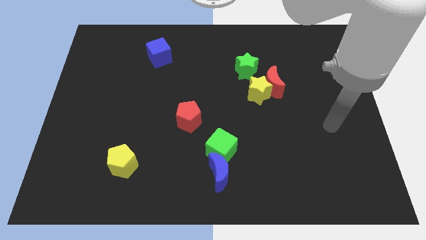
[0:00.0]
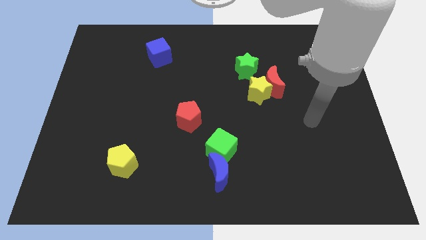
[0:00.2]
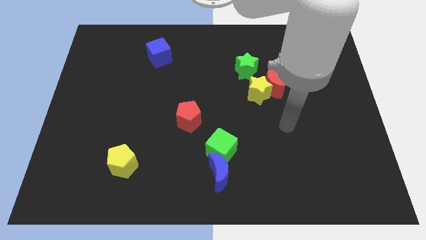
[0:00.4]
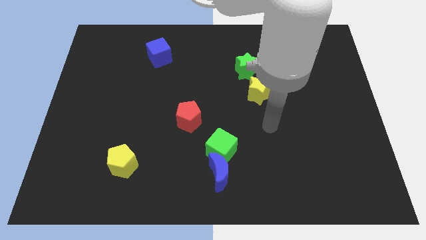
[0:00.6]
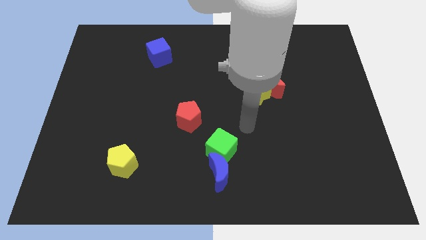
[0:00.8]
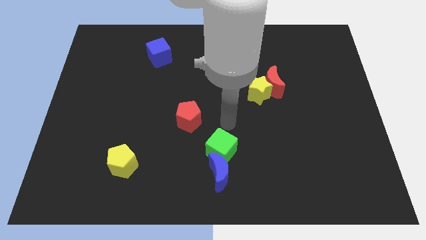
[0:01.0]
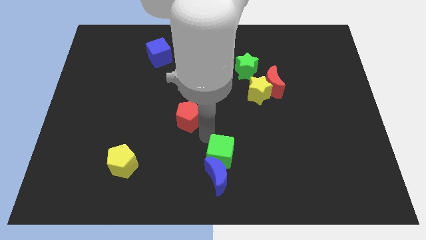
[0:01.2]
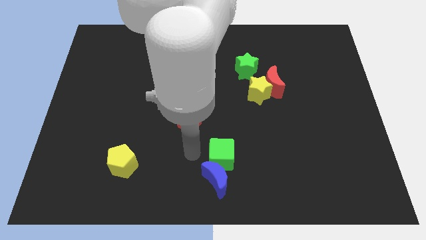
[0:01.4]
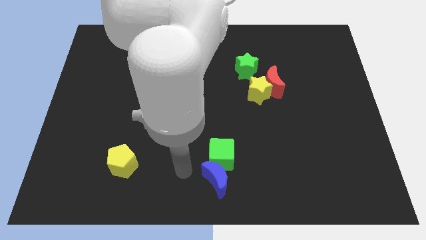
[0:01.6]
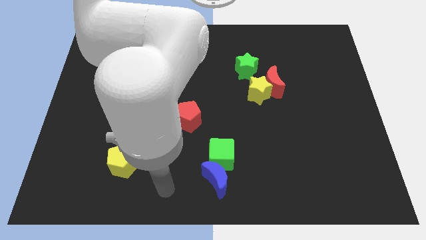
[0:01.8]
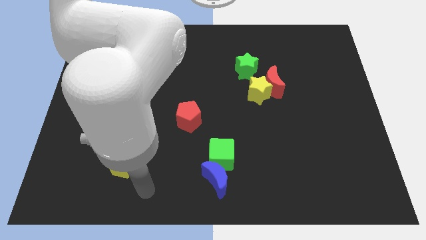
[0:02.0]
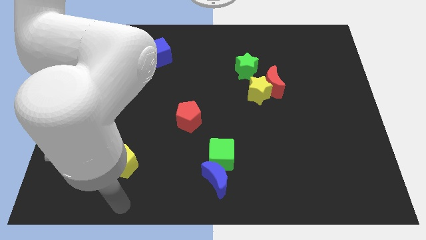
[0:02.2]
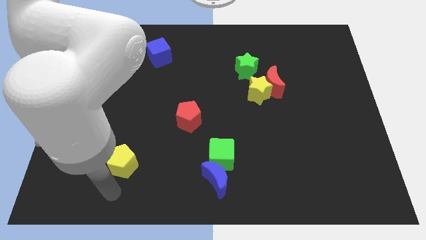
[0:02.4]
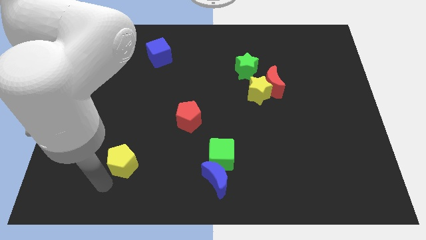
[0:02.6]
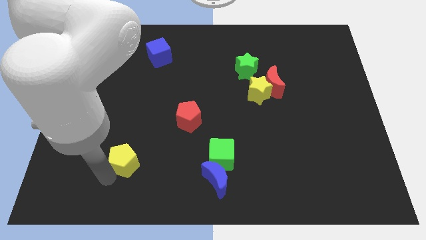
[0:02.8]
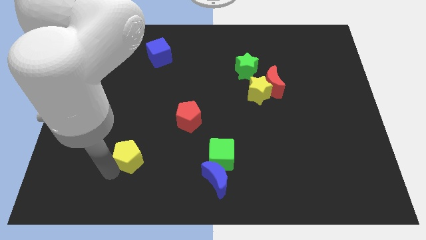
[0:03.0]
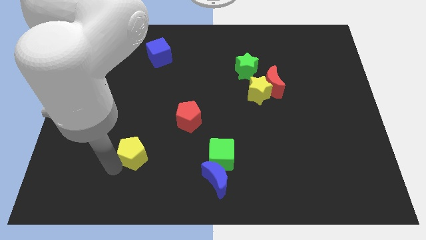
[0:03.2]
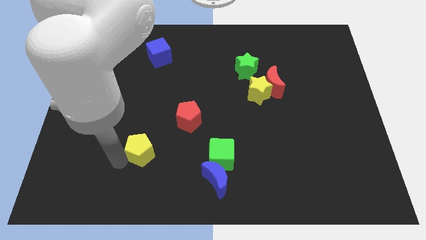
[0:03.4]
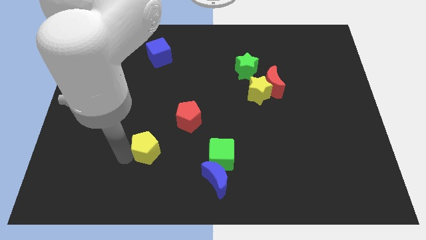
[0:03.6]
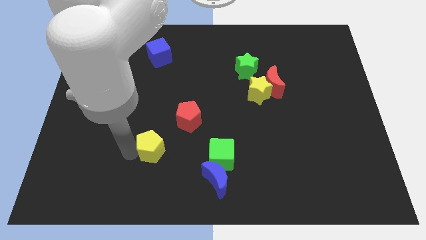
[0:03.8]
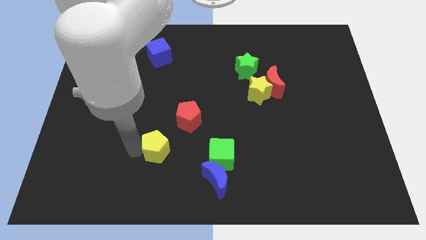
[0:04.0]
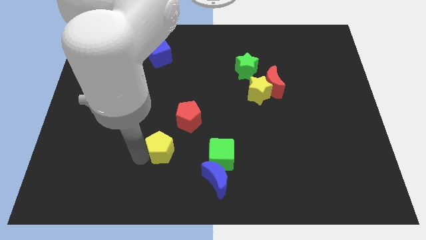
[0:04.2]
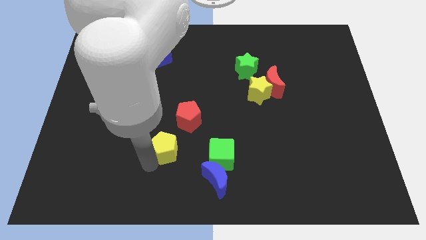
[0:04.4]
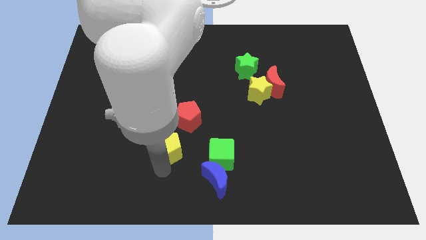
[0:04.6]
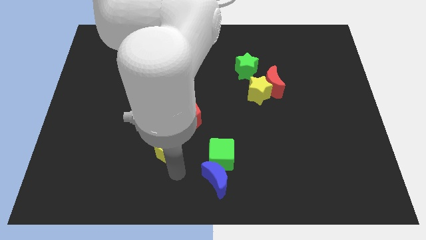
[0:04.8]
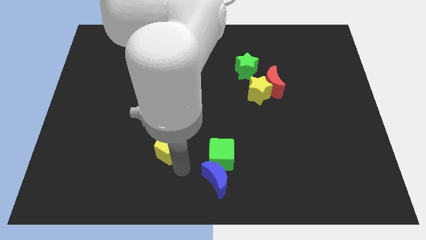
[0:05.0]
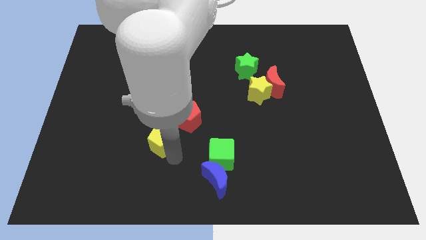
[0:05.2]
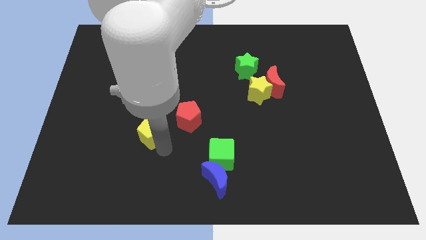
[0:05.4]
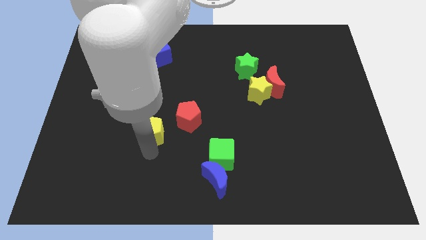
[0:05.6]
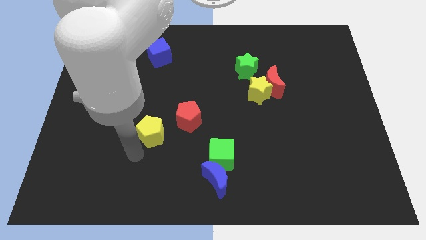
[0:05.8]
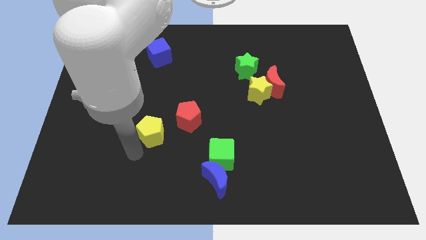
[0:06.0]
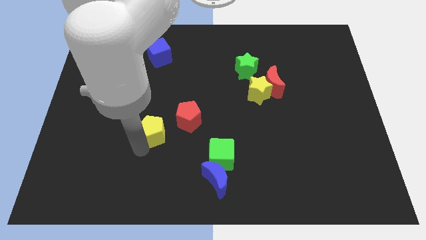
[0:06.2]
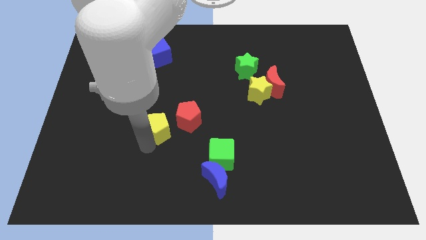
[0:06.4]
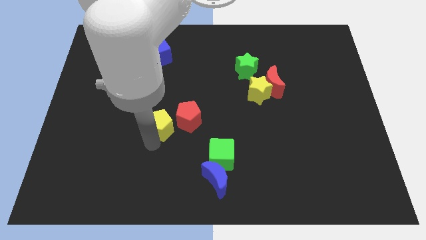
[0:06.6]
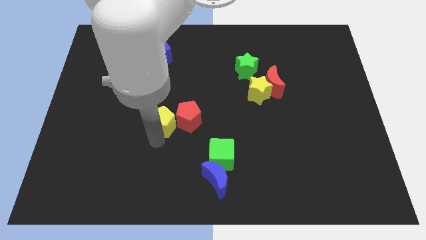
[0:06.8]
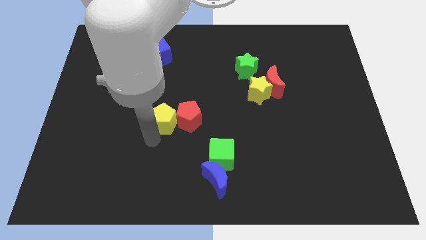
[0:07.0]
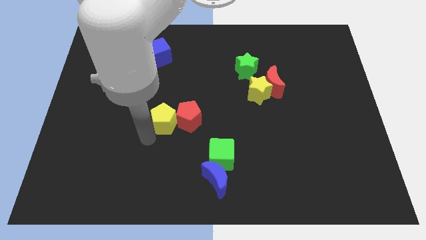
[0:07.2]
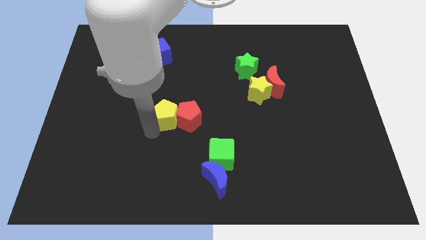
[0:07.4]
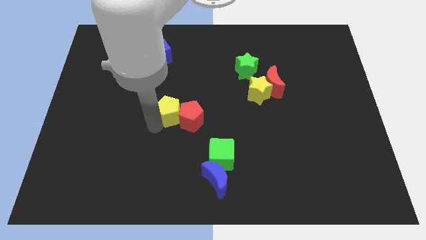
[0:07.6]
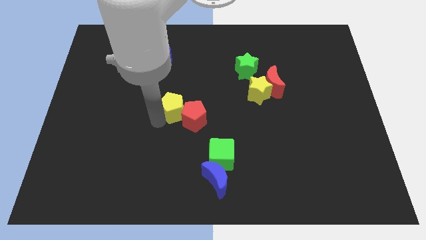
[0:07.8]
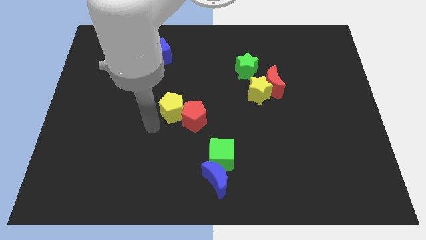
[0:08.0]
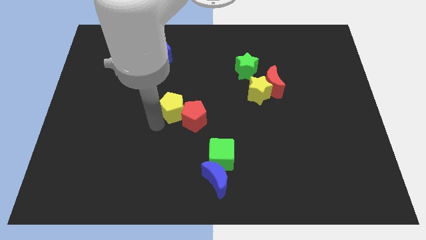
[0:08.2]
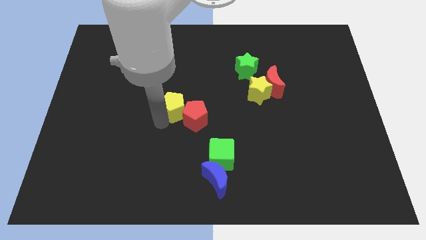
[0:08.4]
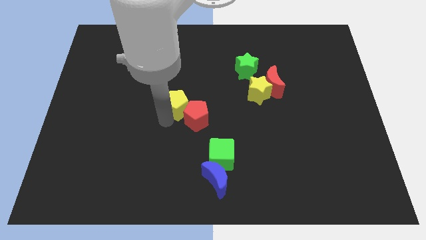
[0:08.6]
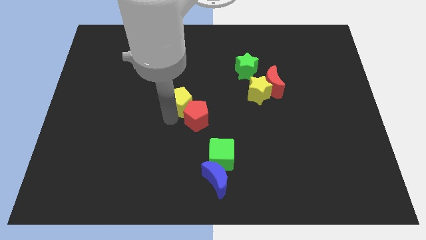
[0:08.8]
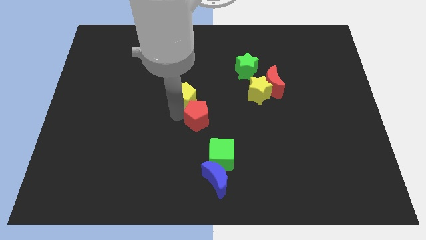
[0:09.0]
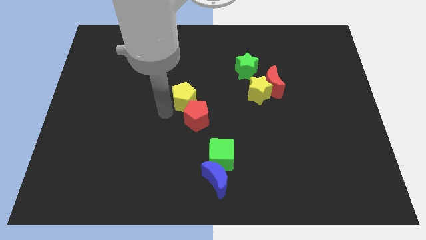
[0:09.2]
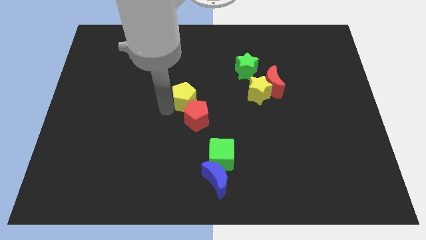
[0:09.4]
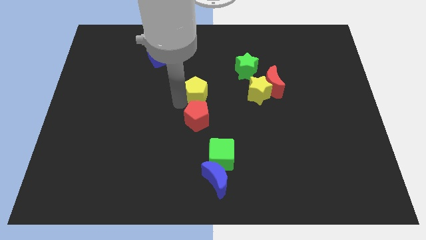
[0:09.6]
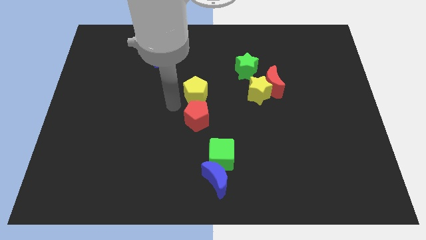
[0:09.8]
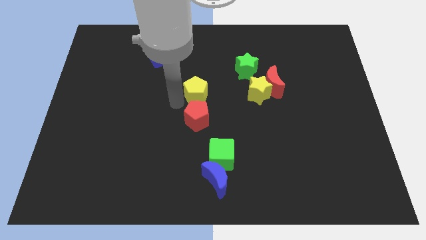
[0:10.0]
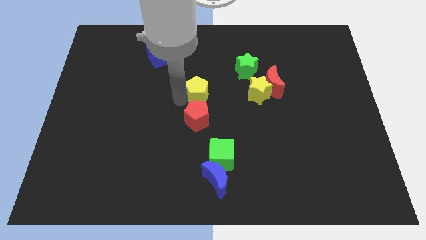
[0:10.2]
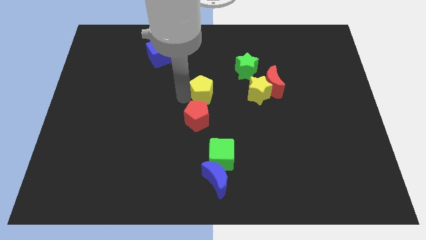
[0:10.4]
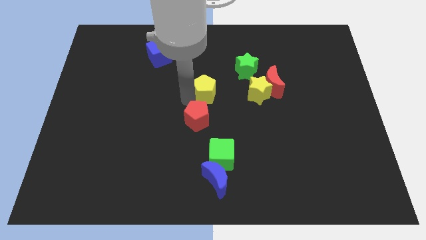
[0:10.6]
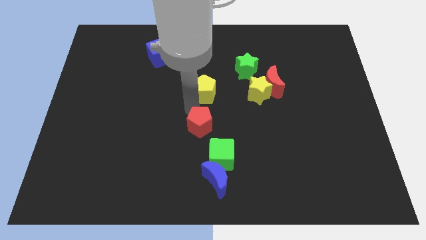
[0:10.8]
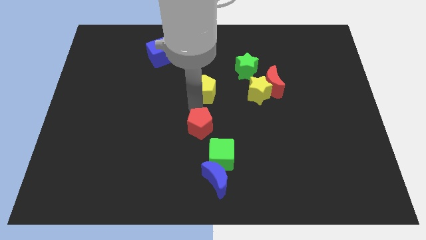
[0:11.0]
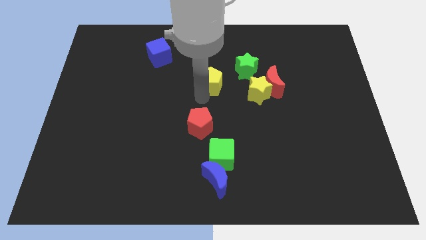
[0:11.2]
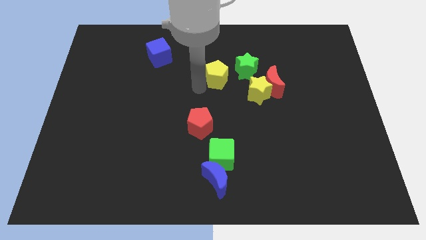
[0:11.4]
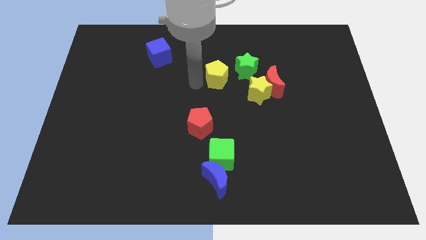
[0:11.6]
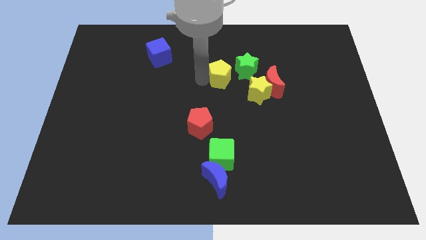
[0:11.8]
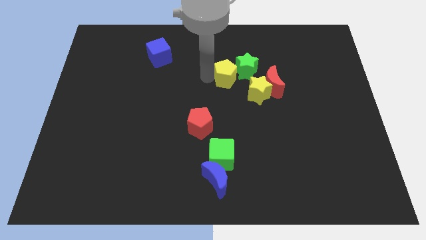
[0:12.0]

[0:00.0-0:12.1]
push the yellow pentagon towards the green star

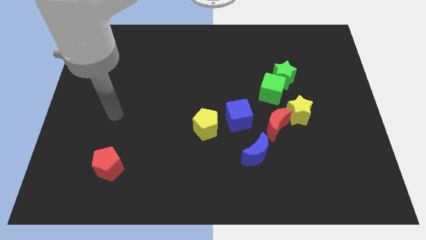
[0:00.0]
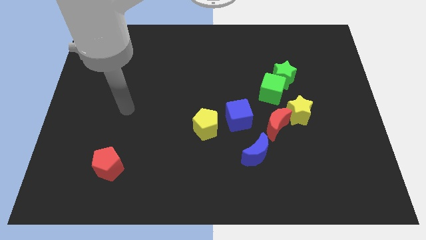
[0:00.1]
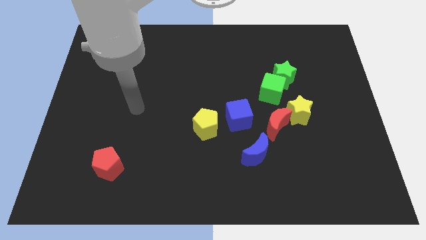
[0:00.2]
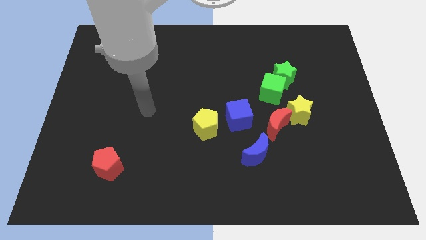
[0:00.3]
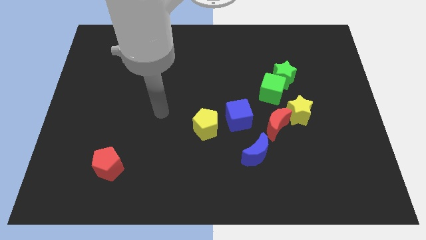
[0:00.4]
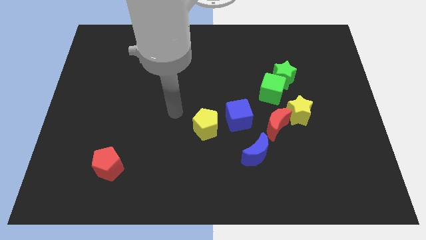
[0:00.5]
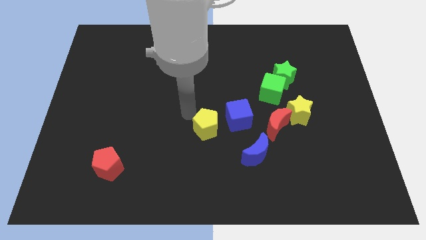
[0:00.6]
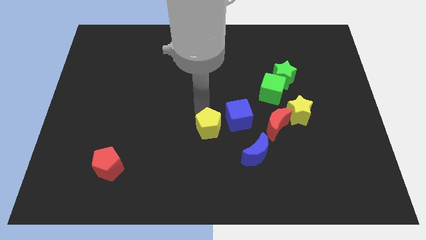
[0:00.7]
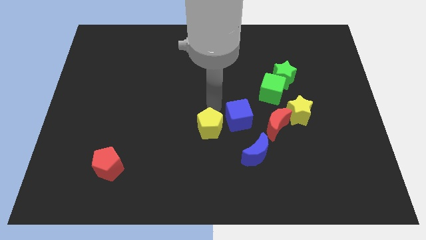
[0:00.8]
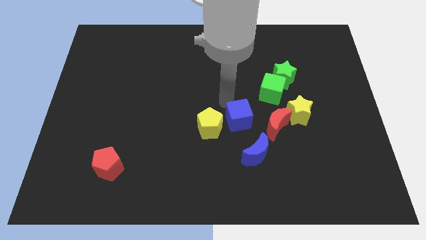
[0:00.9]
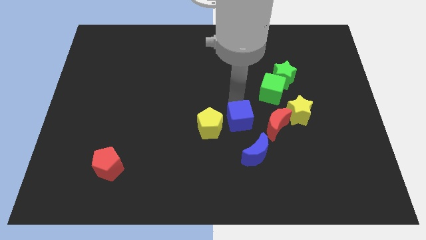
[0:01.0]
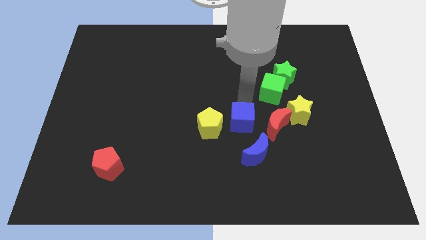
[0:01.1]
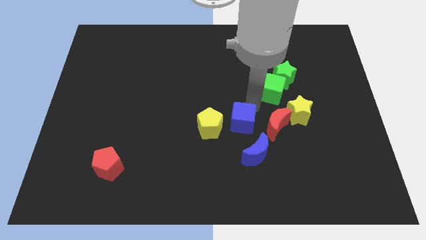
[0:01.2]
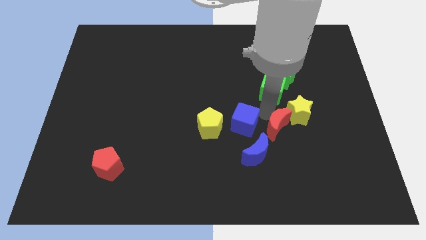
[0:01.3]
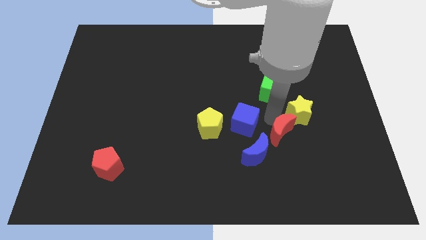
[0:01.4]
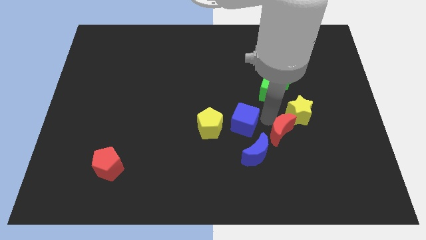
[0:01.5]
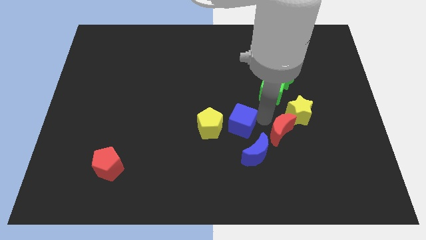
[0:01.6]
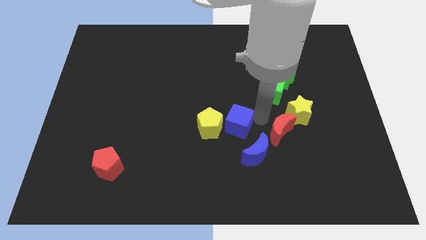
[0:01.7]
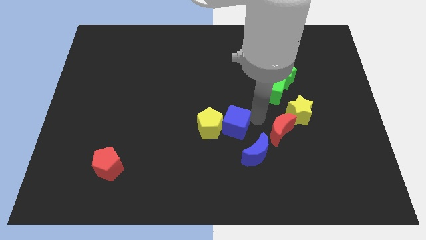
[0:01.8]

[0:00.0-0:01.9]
push the blue cube towards the yellow pentagon
